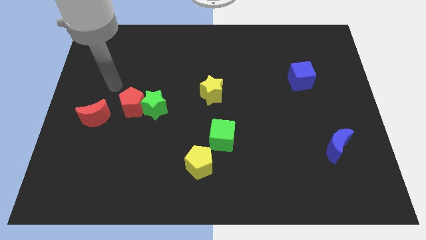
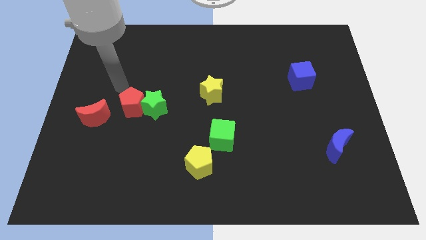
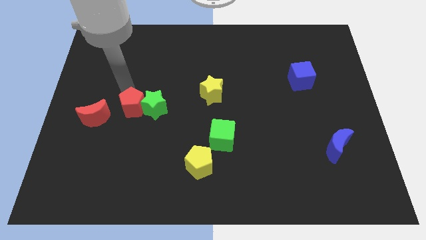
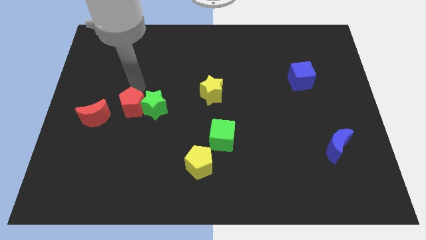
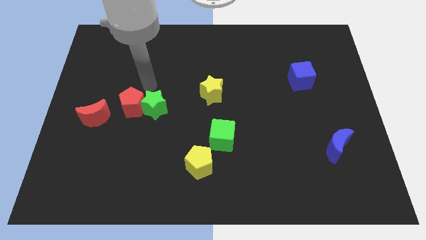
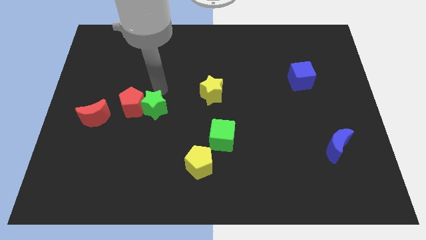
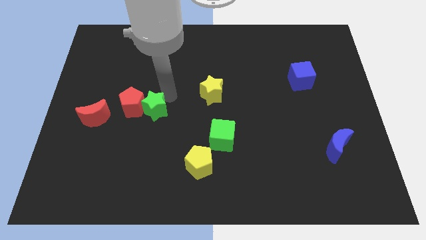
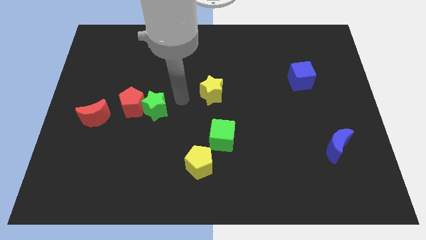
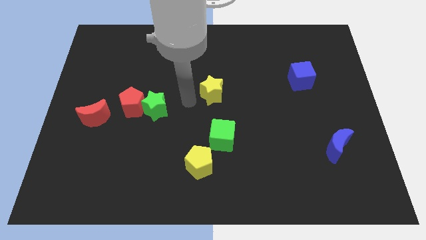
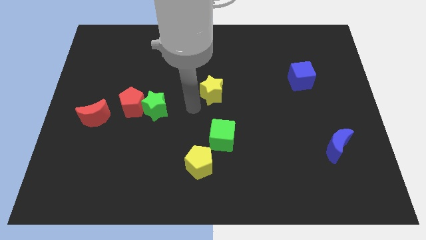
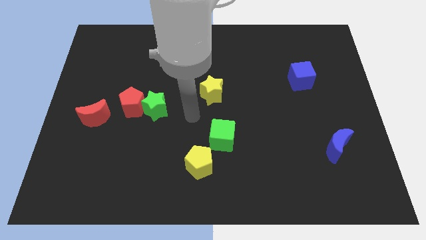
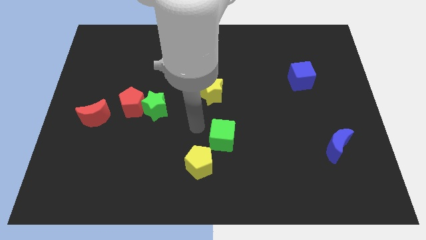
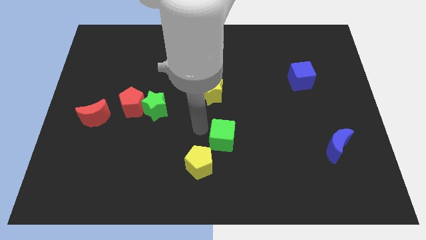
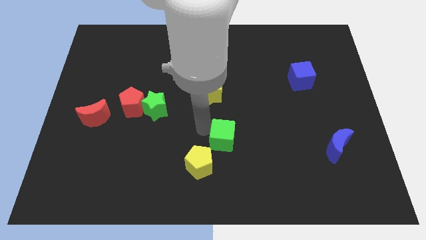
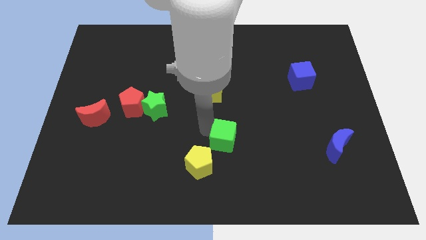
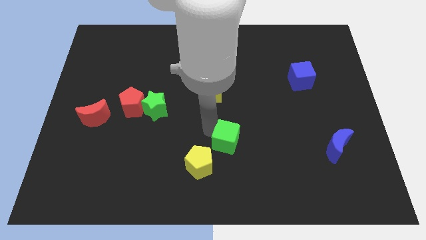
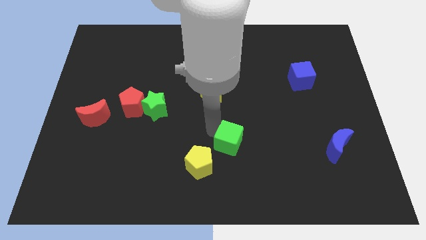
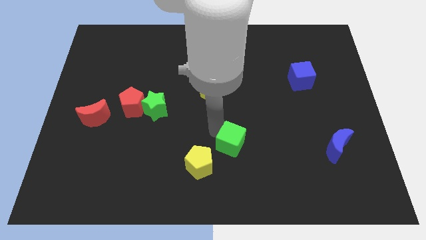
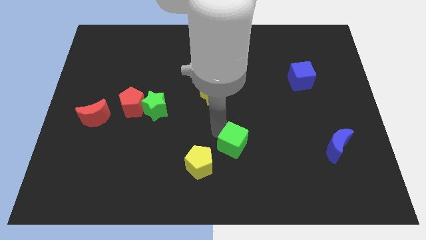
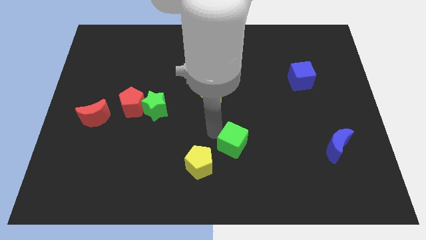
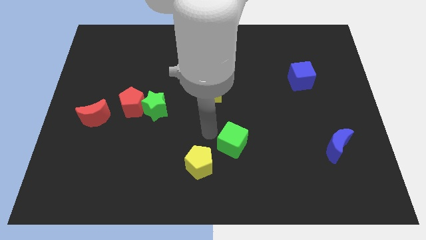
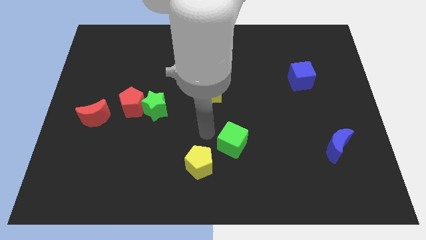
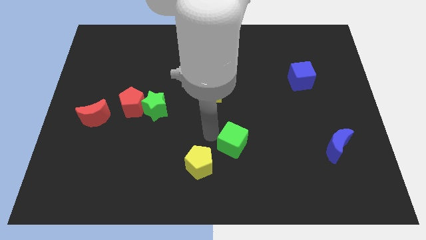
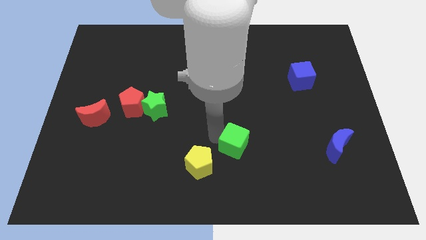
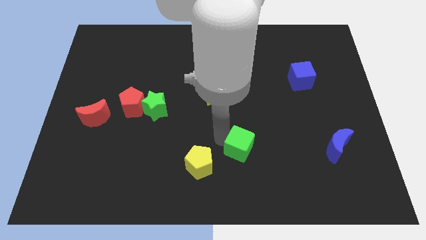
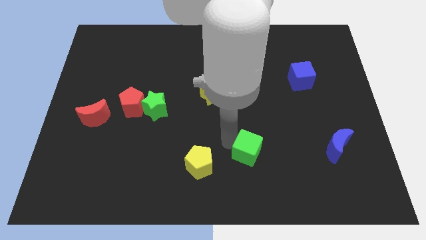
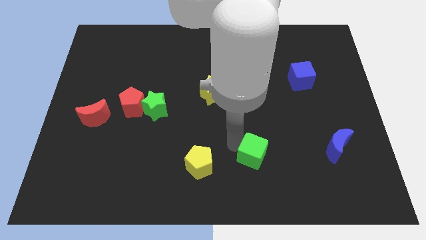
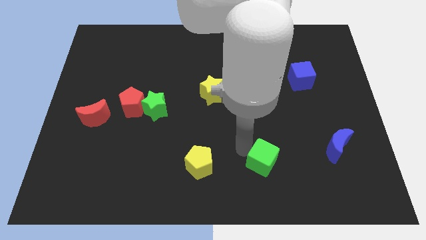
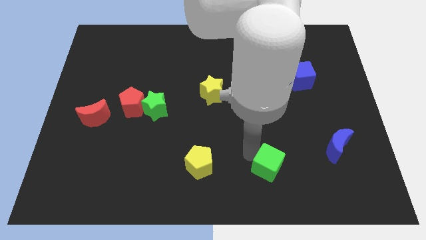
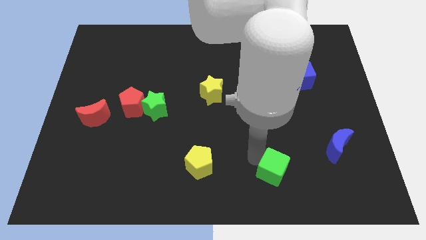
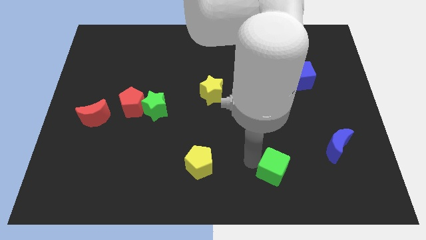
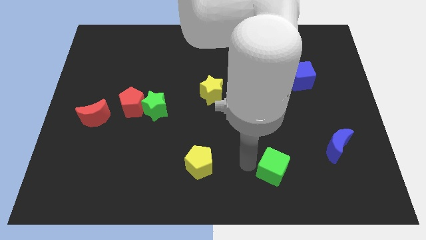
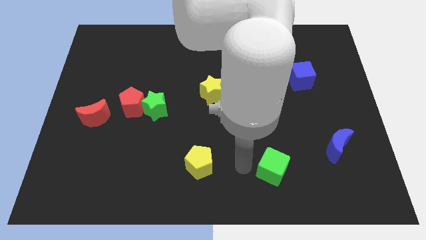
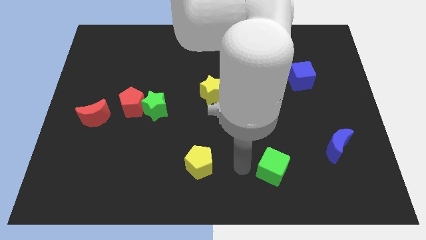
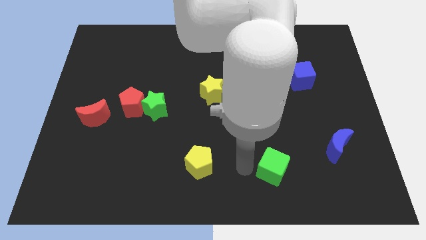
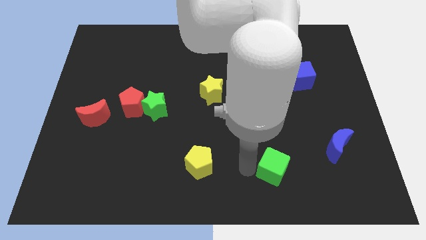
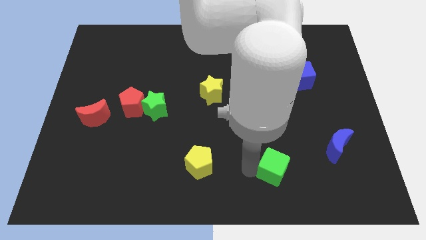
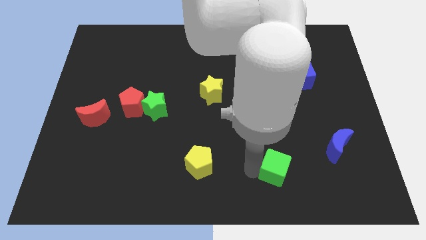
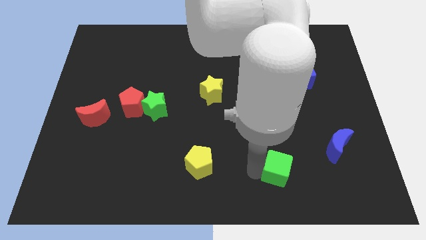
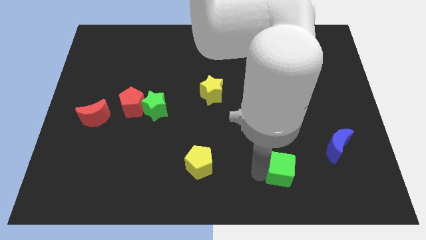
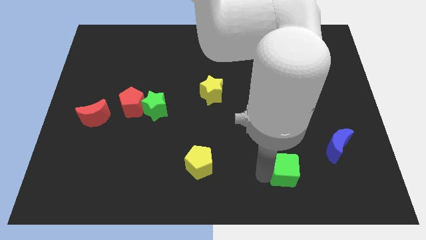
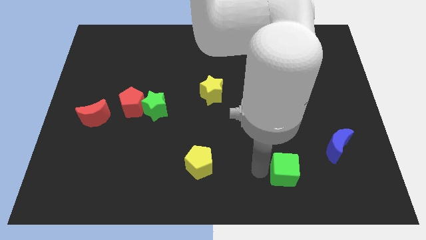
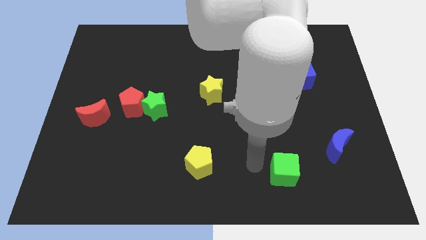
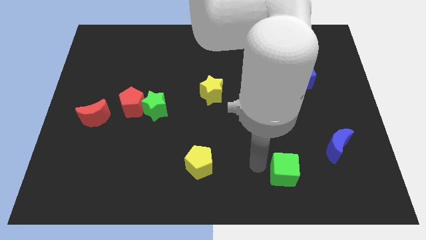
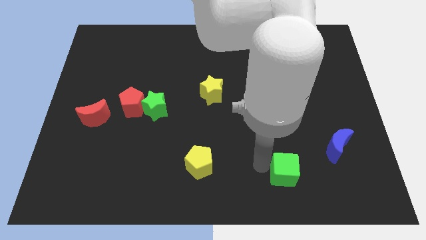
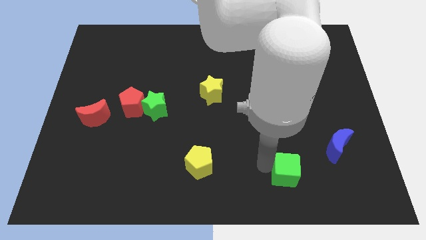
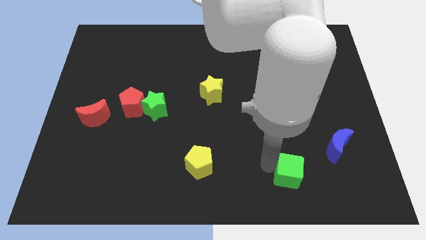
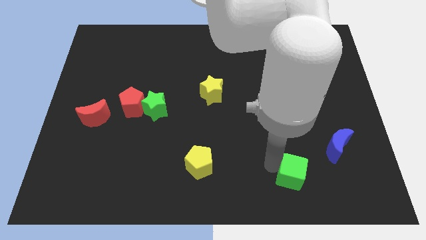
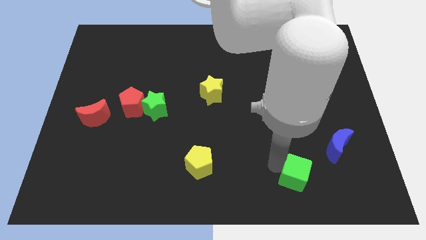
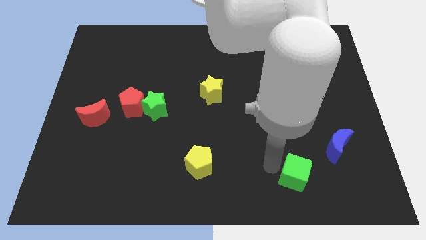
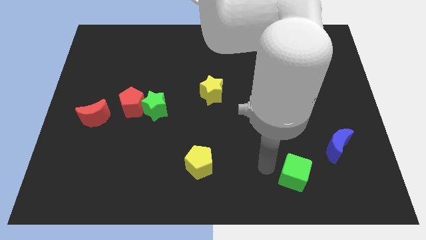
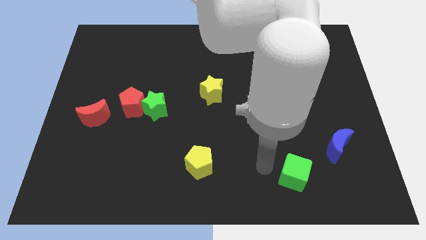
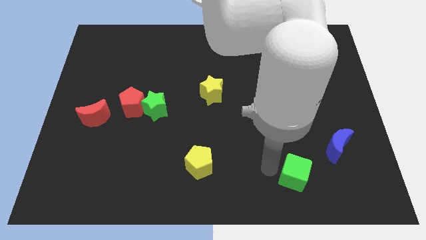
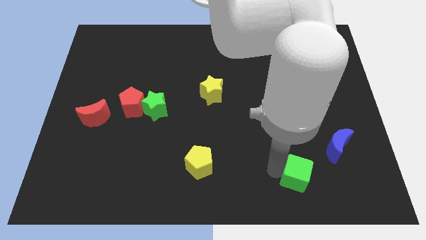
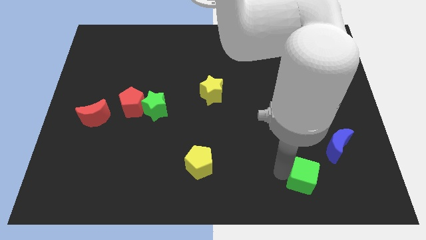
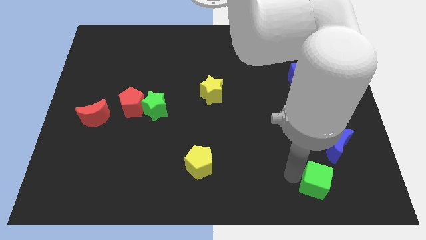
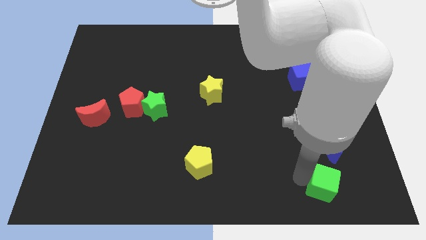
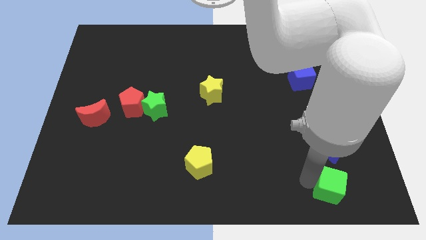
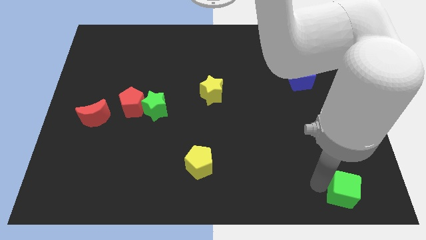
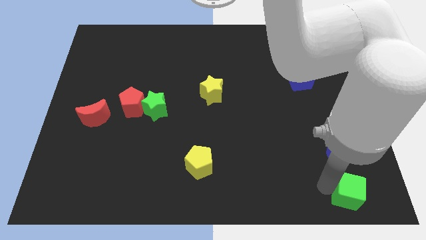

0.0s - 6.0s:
move the green cube to the bottom right corner

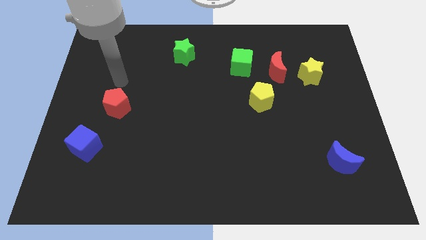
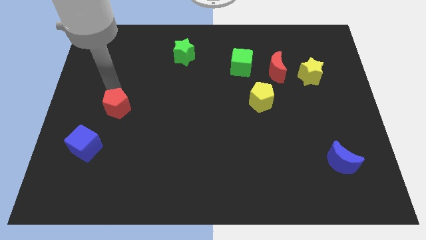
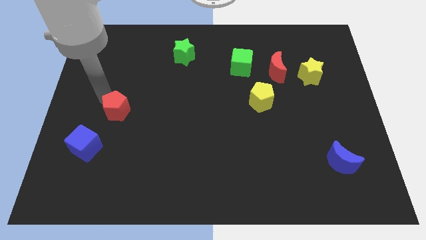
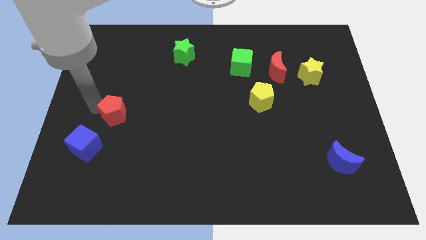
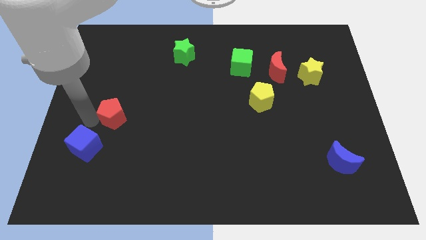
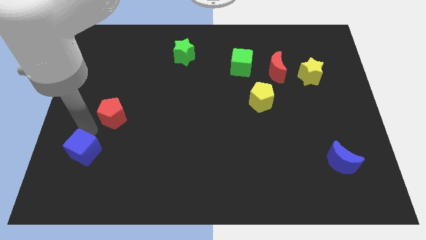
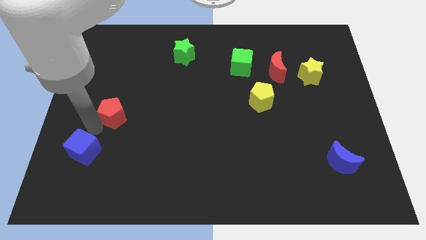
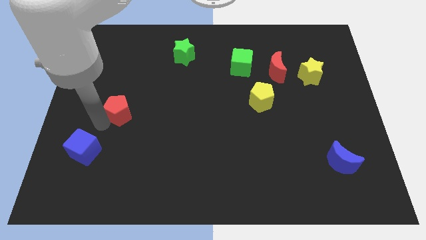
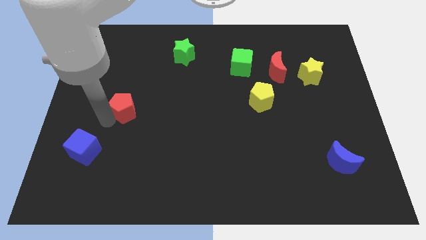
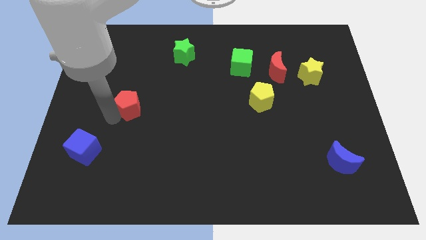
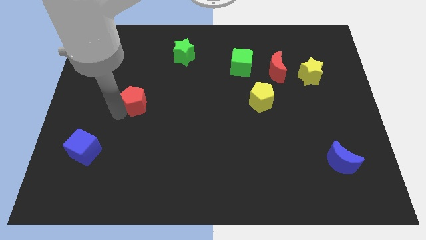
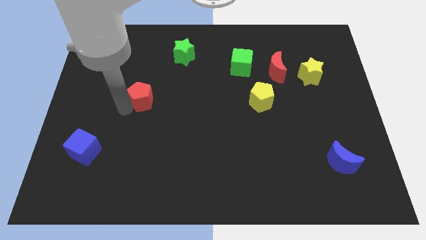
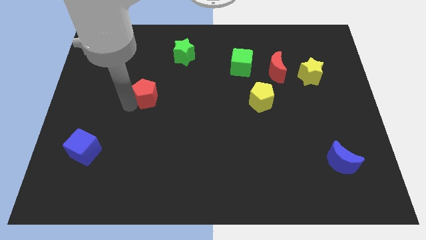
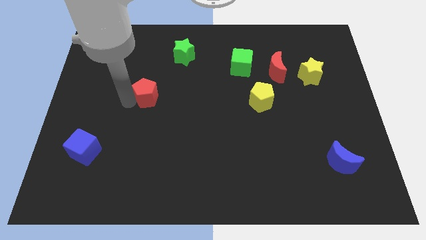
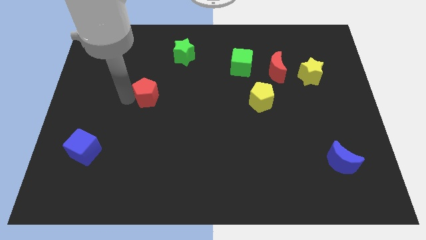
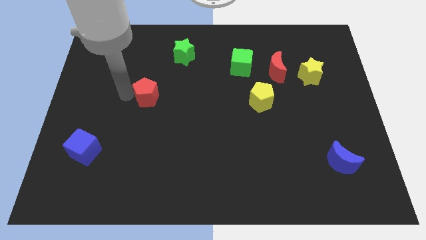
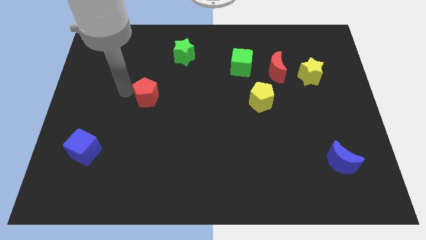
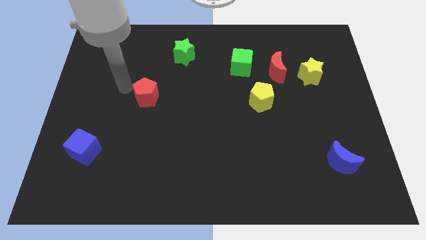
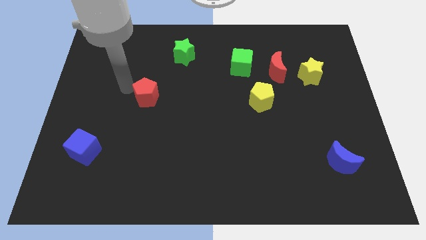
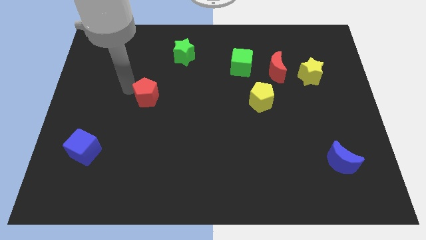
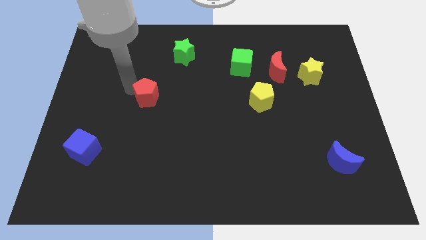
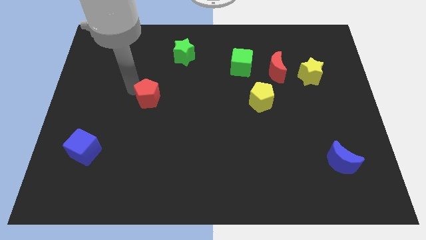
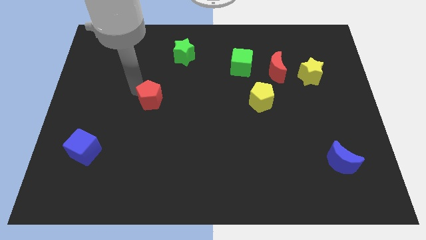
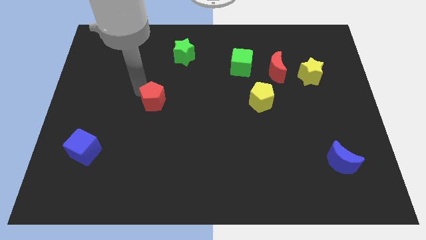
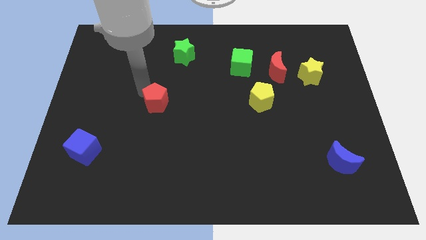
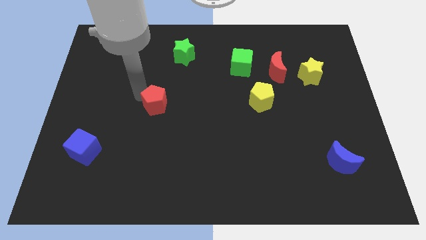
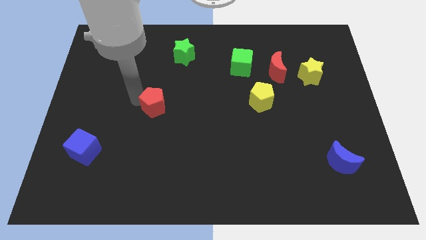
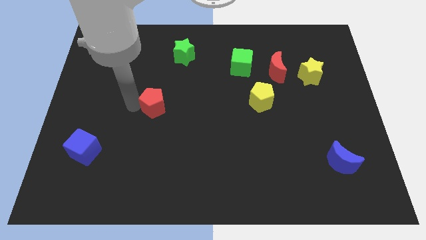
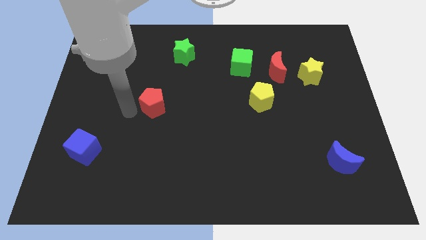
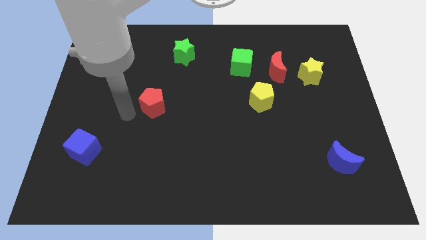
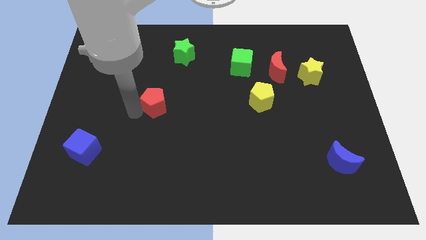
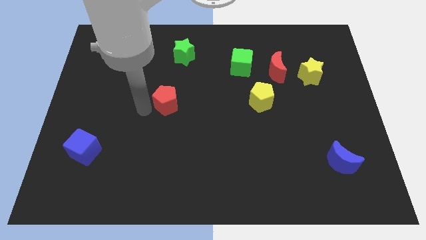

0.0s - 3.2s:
slide the red pentagon to the middle
